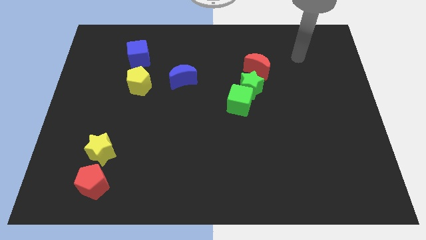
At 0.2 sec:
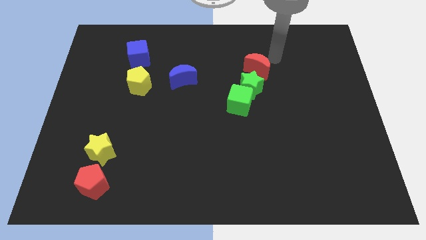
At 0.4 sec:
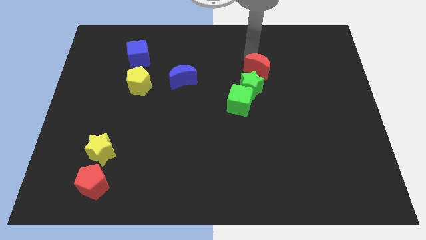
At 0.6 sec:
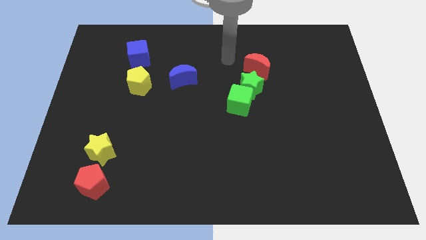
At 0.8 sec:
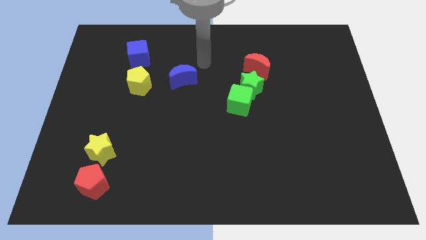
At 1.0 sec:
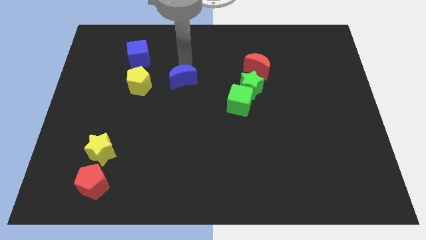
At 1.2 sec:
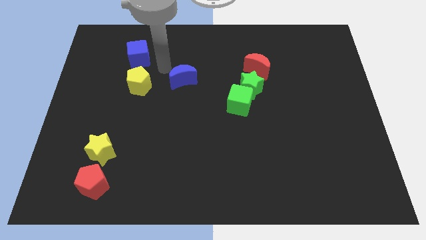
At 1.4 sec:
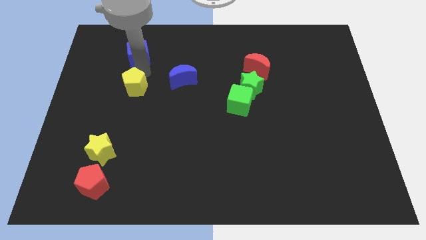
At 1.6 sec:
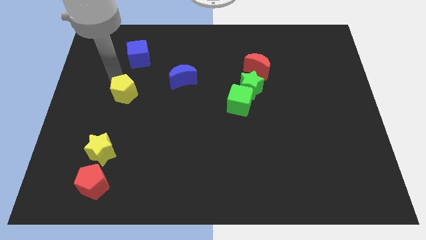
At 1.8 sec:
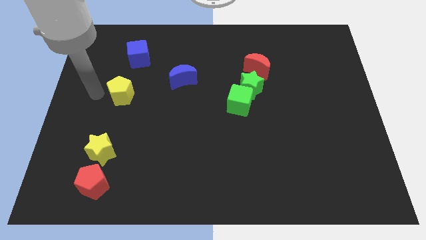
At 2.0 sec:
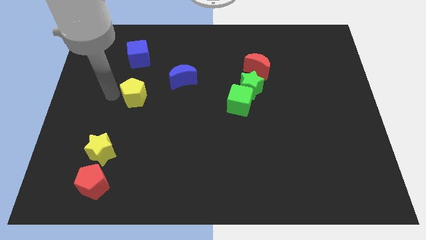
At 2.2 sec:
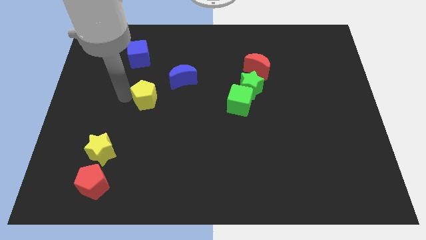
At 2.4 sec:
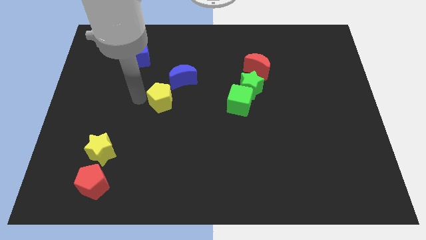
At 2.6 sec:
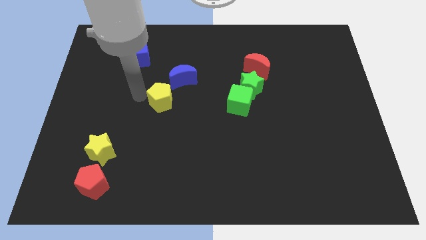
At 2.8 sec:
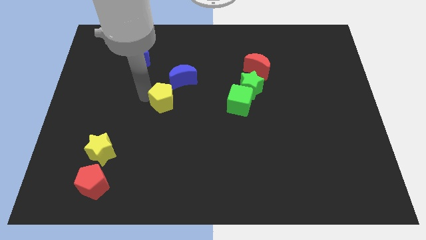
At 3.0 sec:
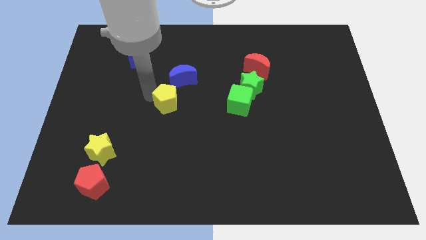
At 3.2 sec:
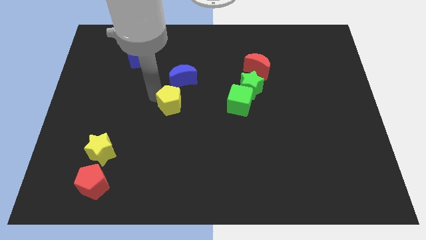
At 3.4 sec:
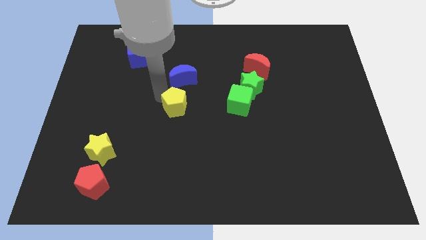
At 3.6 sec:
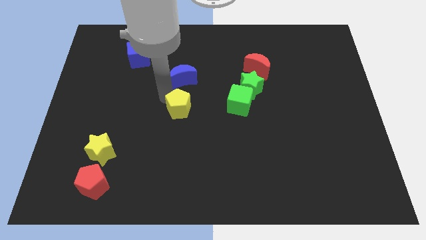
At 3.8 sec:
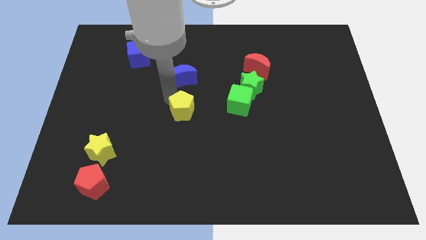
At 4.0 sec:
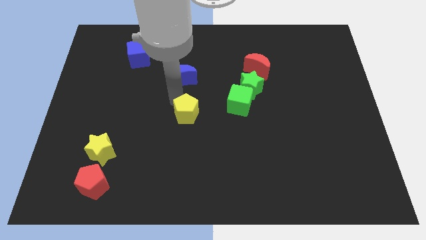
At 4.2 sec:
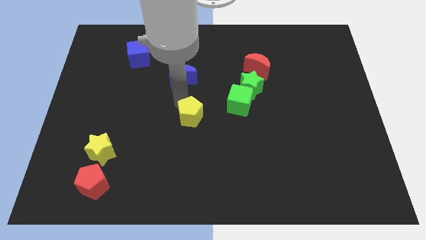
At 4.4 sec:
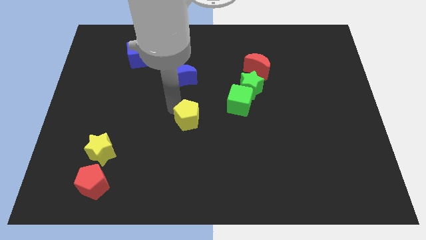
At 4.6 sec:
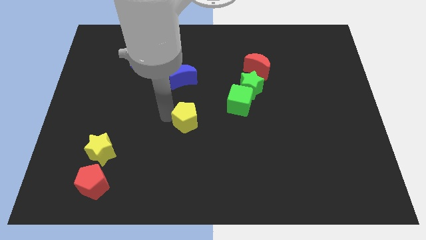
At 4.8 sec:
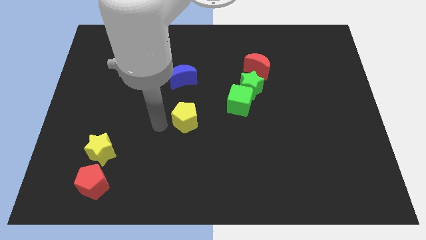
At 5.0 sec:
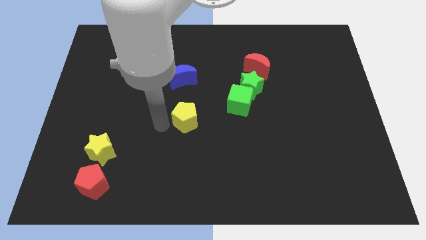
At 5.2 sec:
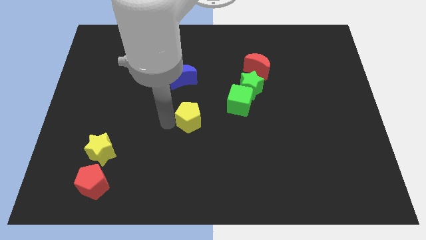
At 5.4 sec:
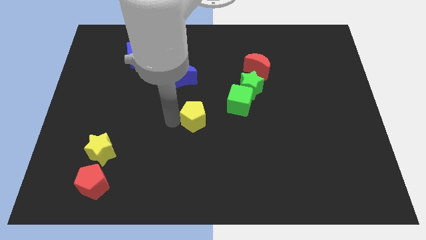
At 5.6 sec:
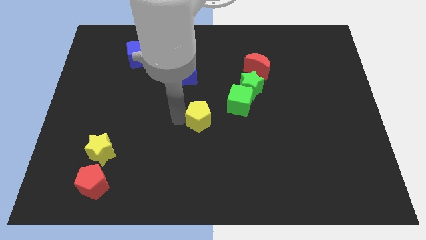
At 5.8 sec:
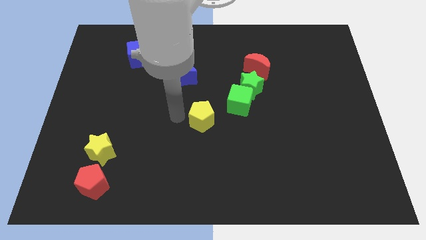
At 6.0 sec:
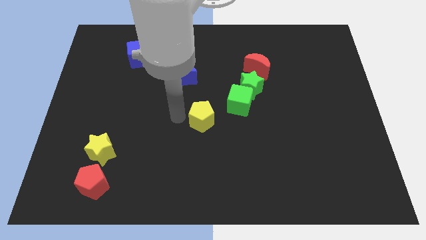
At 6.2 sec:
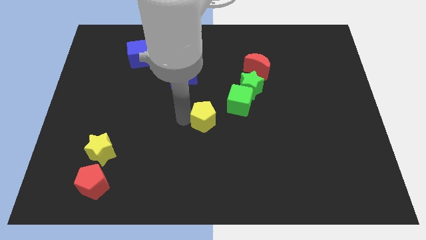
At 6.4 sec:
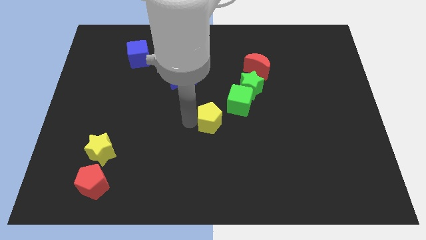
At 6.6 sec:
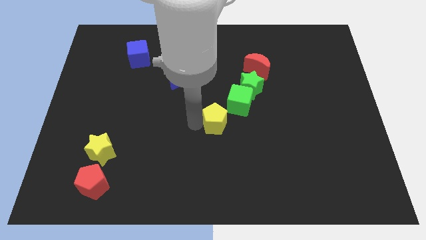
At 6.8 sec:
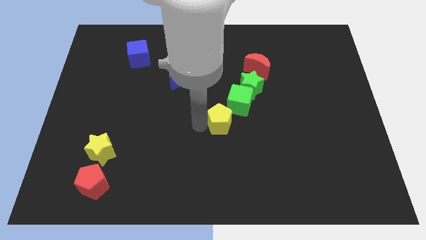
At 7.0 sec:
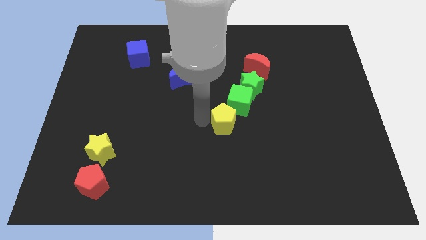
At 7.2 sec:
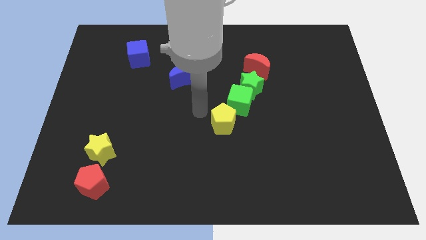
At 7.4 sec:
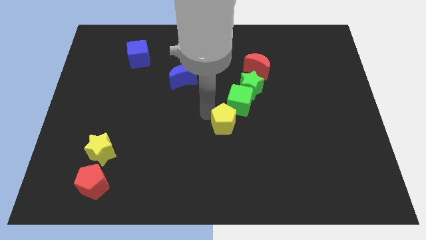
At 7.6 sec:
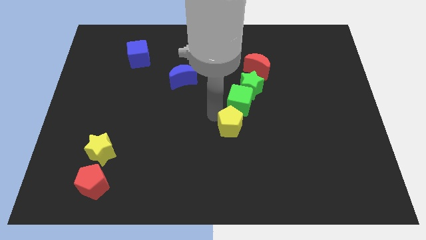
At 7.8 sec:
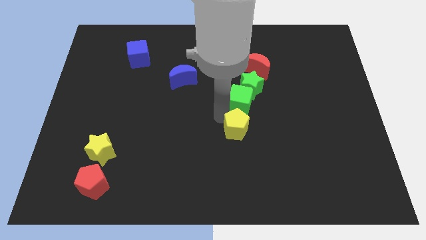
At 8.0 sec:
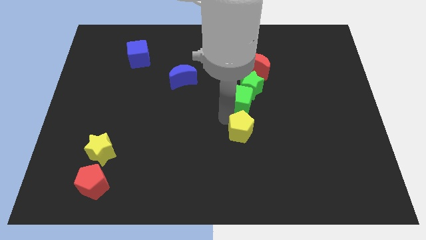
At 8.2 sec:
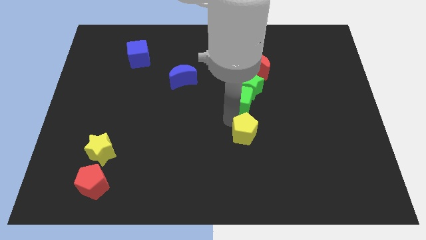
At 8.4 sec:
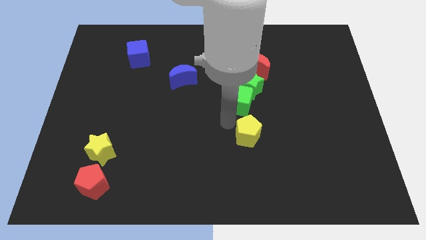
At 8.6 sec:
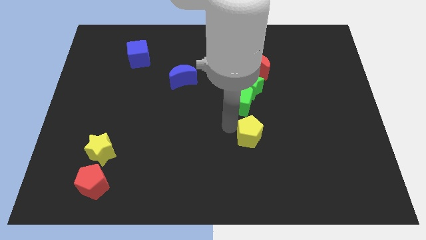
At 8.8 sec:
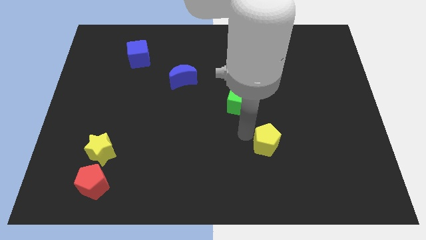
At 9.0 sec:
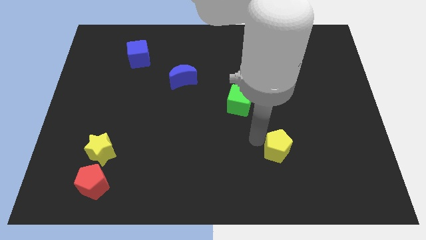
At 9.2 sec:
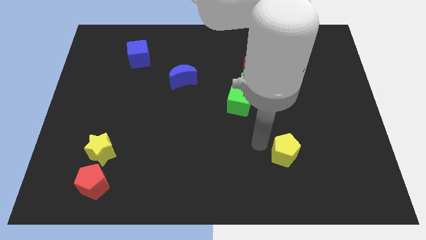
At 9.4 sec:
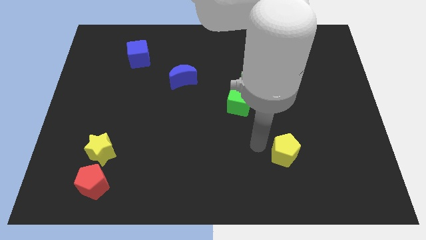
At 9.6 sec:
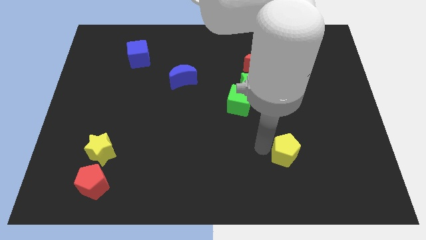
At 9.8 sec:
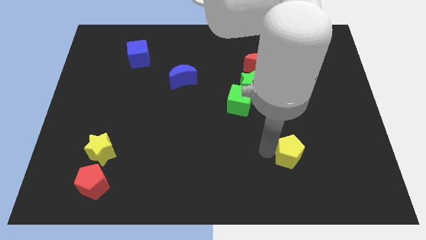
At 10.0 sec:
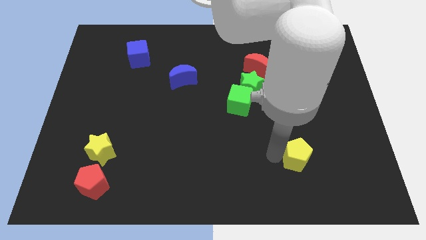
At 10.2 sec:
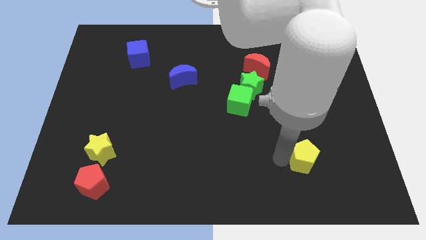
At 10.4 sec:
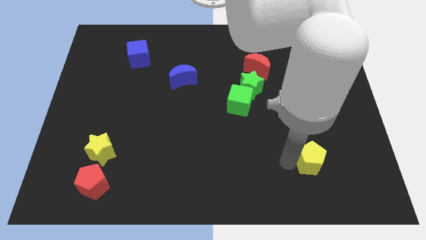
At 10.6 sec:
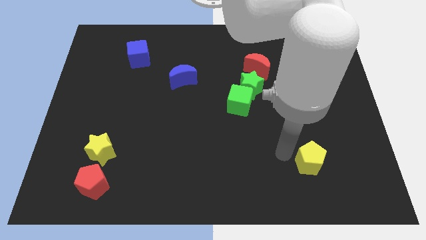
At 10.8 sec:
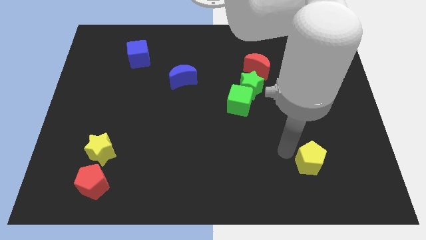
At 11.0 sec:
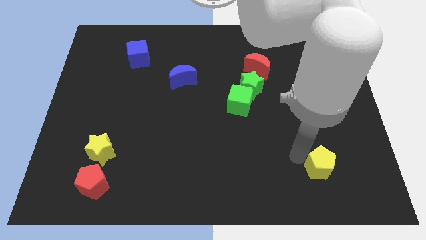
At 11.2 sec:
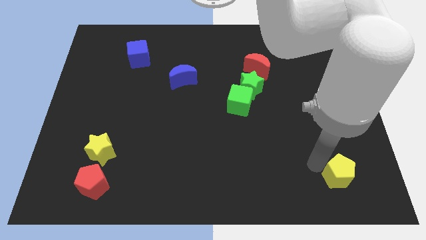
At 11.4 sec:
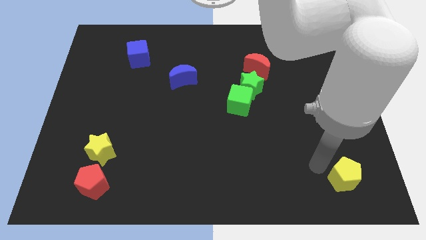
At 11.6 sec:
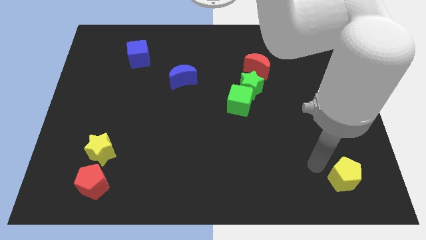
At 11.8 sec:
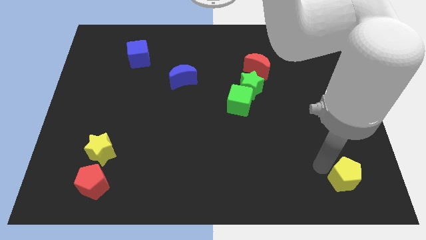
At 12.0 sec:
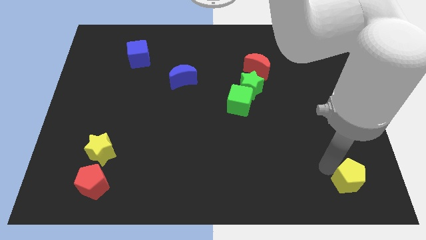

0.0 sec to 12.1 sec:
push the yellow pentagon to the bottom right of the board

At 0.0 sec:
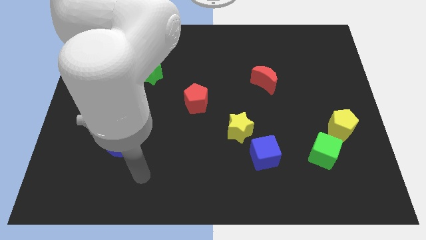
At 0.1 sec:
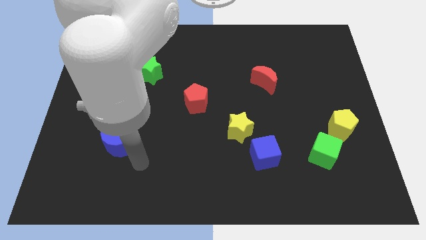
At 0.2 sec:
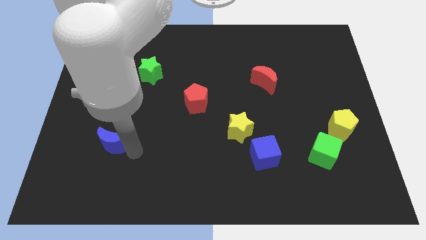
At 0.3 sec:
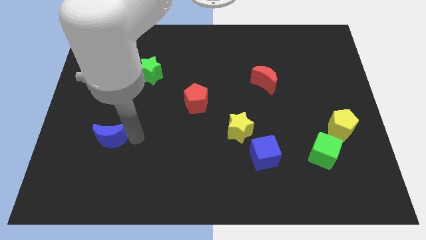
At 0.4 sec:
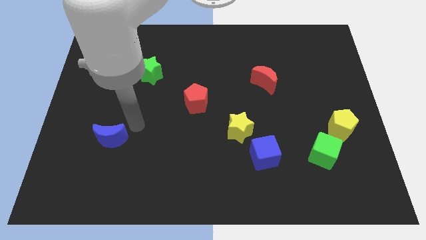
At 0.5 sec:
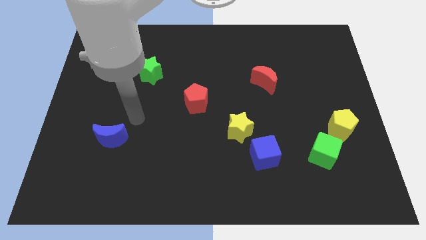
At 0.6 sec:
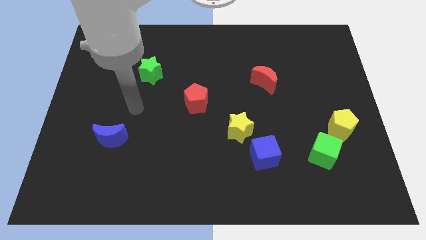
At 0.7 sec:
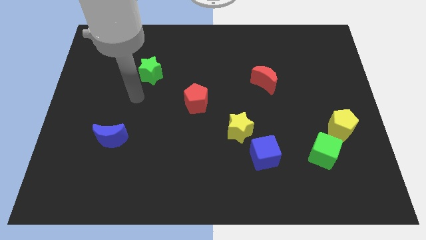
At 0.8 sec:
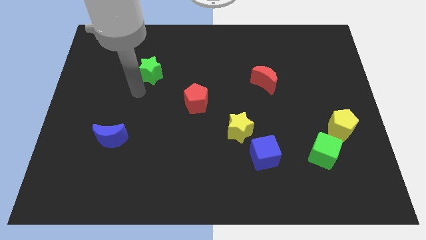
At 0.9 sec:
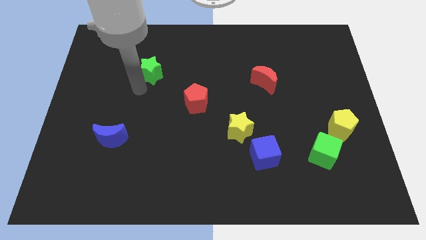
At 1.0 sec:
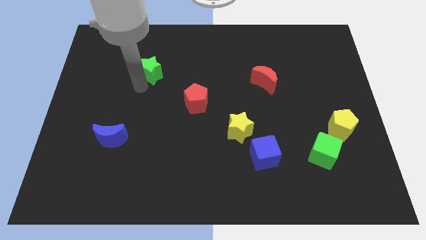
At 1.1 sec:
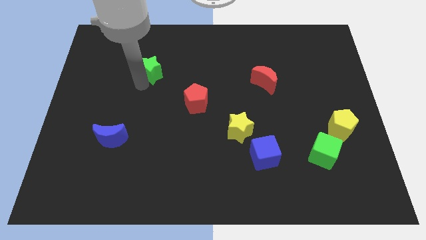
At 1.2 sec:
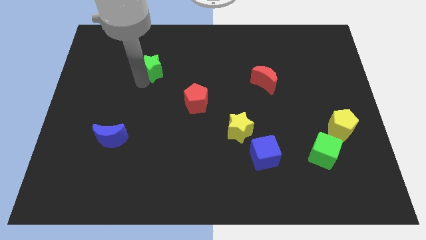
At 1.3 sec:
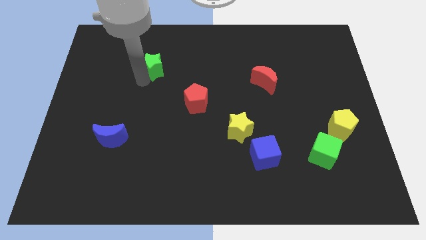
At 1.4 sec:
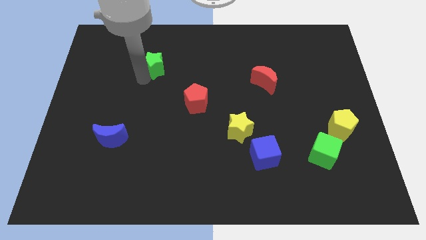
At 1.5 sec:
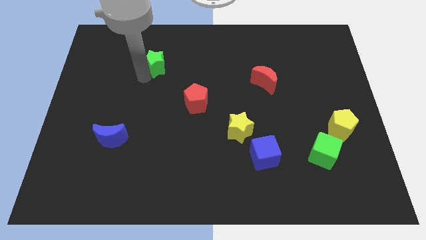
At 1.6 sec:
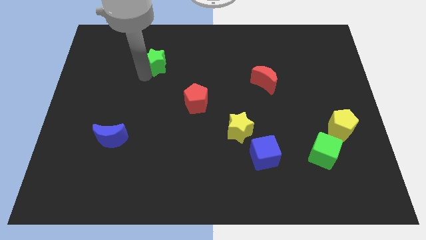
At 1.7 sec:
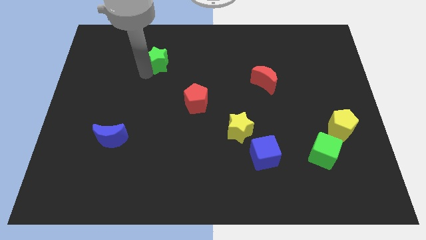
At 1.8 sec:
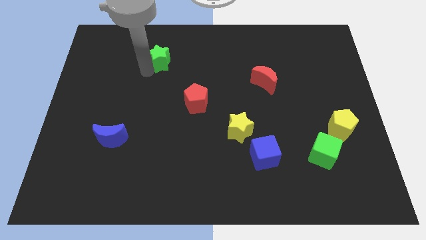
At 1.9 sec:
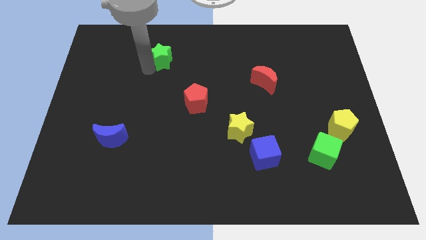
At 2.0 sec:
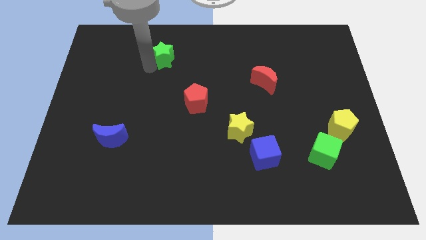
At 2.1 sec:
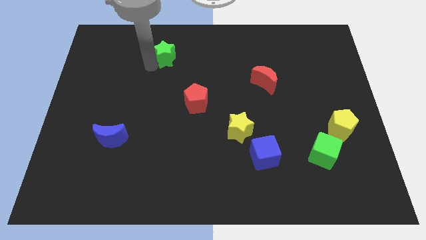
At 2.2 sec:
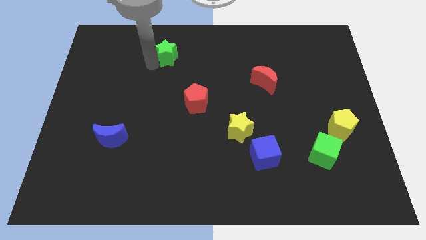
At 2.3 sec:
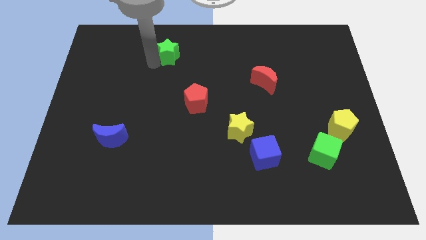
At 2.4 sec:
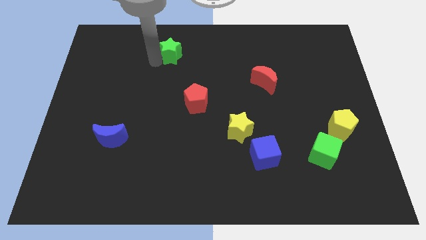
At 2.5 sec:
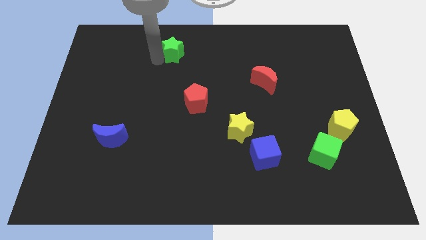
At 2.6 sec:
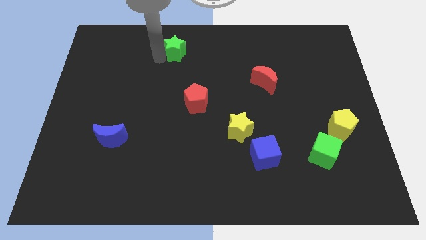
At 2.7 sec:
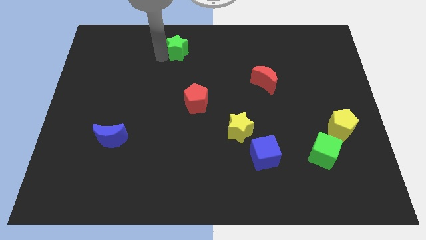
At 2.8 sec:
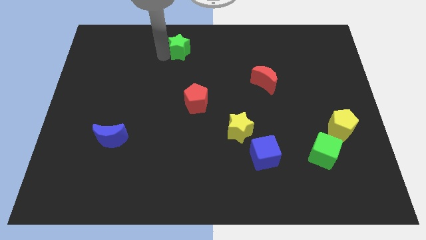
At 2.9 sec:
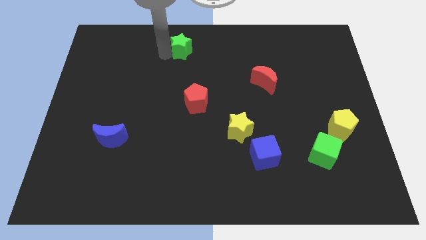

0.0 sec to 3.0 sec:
move the green star to the towards your base
